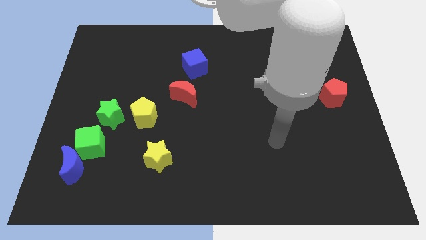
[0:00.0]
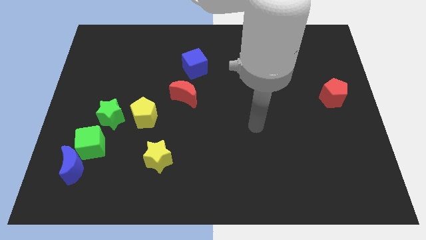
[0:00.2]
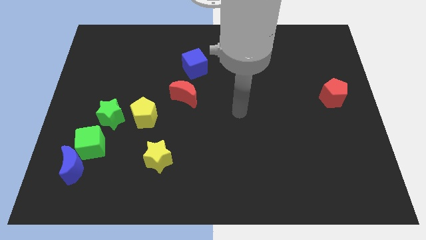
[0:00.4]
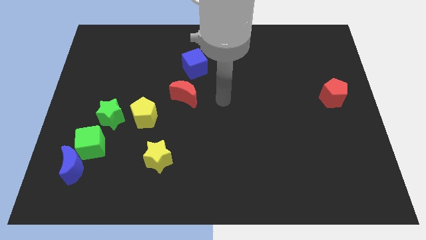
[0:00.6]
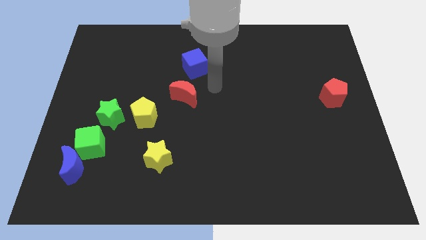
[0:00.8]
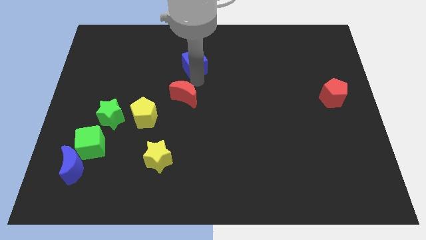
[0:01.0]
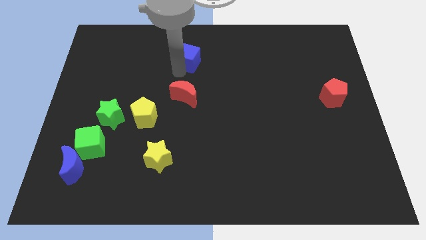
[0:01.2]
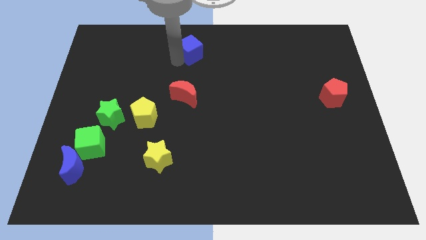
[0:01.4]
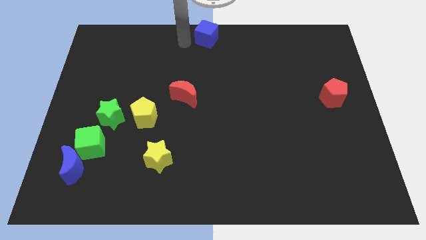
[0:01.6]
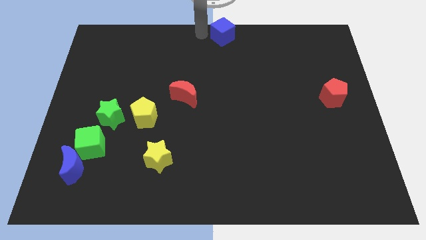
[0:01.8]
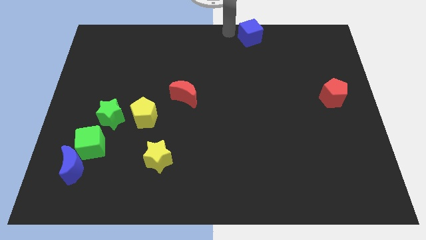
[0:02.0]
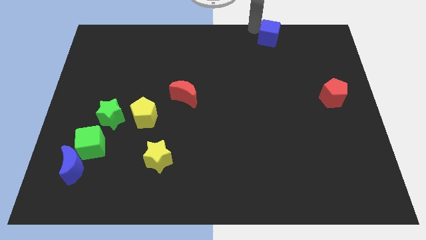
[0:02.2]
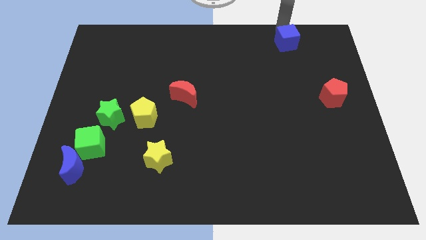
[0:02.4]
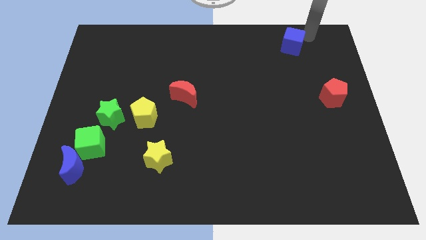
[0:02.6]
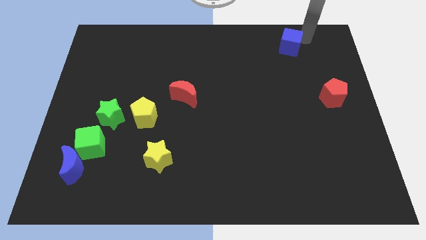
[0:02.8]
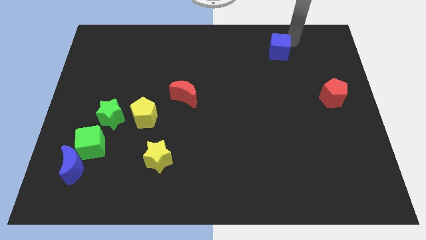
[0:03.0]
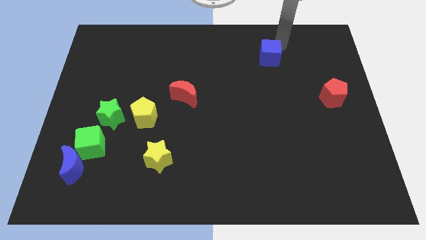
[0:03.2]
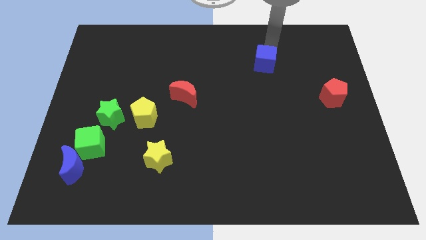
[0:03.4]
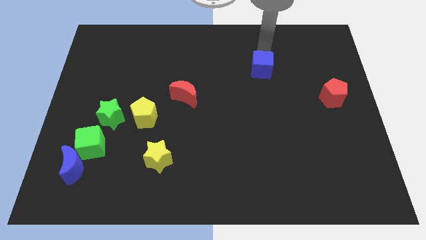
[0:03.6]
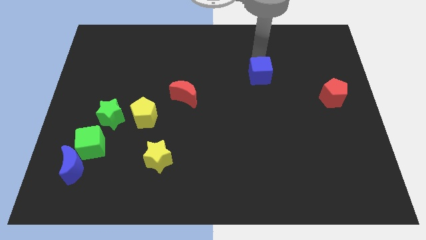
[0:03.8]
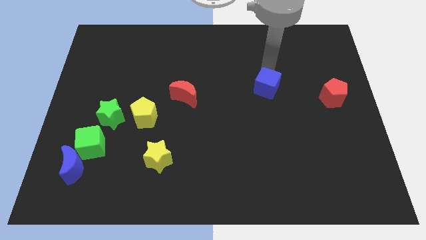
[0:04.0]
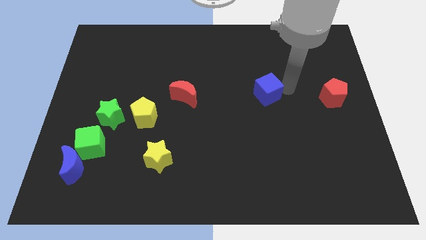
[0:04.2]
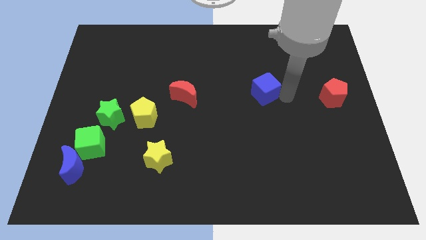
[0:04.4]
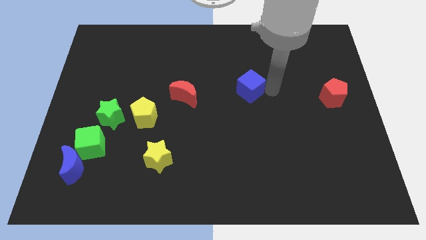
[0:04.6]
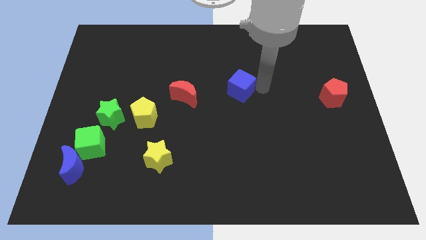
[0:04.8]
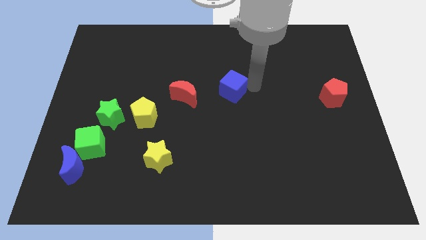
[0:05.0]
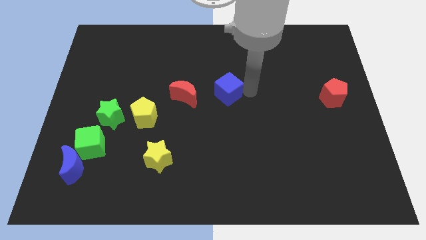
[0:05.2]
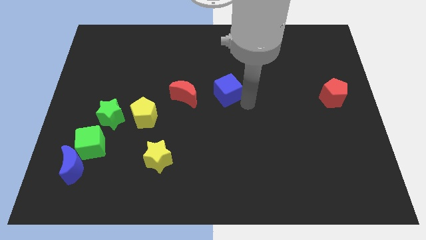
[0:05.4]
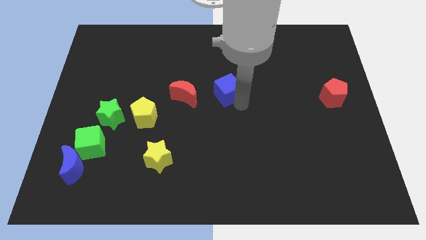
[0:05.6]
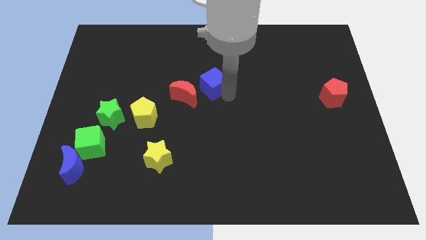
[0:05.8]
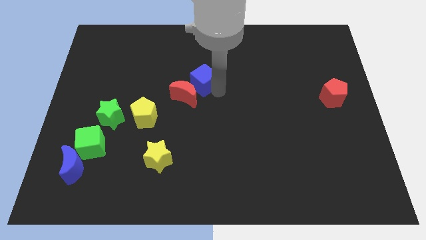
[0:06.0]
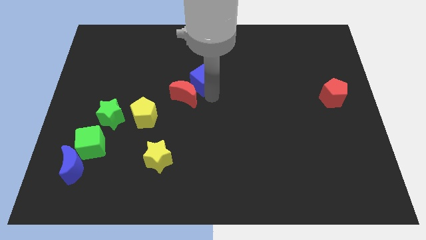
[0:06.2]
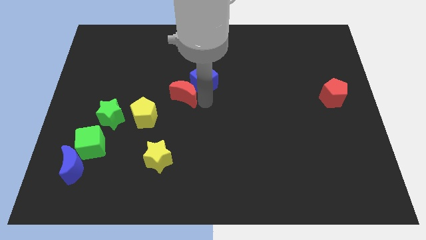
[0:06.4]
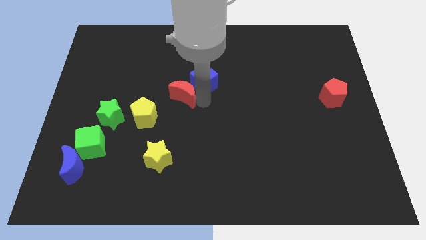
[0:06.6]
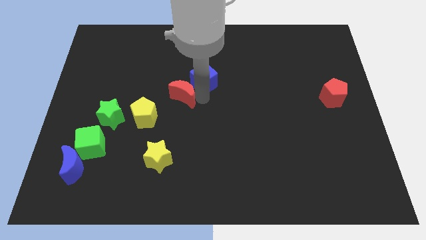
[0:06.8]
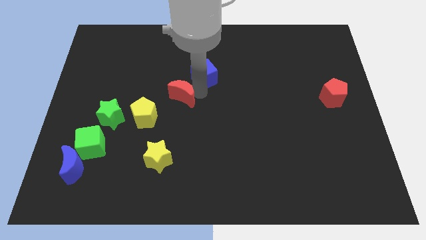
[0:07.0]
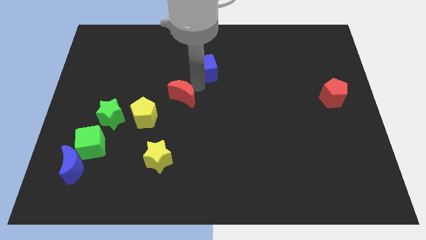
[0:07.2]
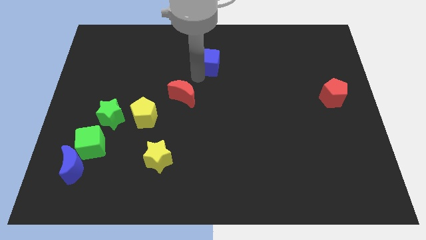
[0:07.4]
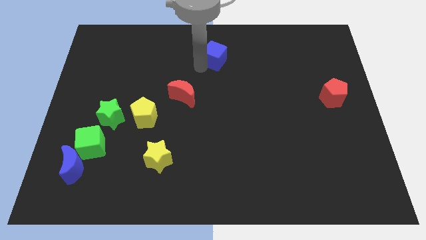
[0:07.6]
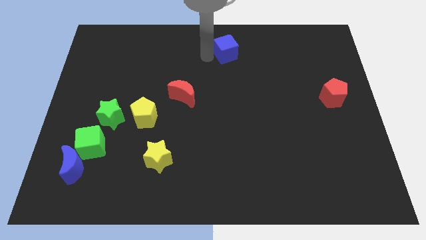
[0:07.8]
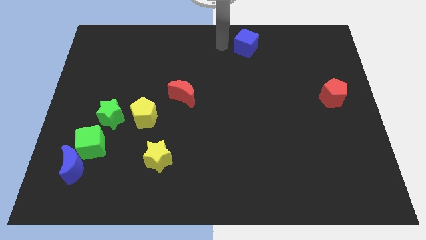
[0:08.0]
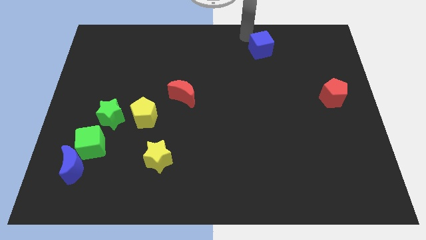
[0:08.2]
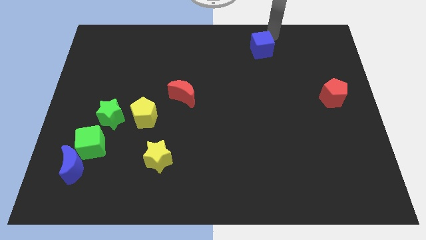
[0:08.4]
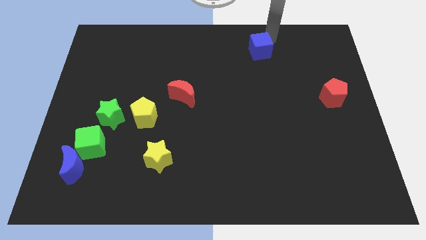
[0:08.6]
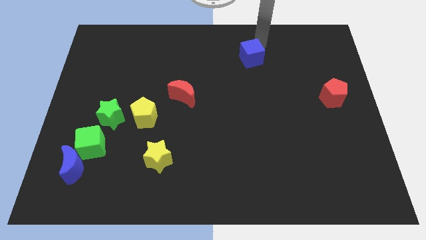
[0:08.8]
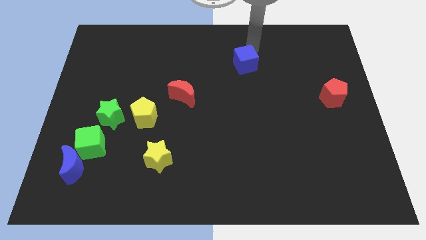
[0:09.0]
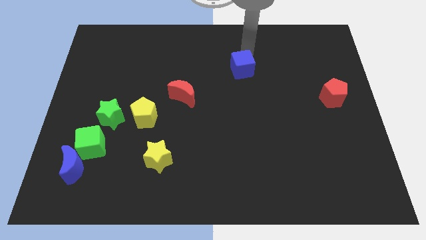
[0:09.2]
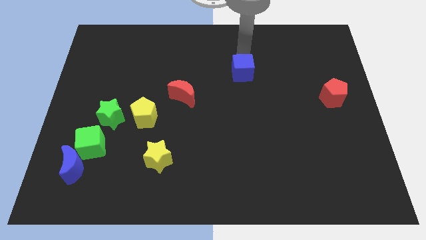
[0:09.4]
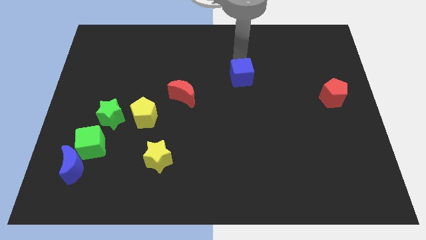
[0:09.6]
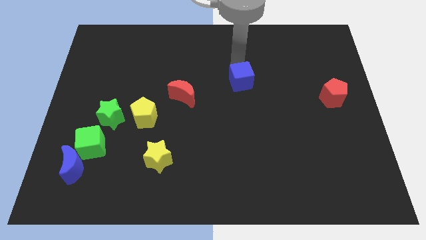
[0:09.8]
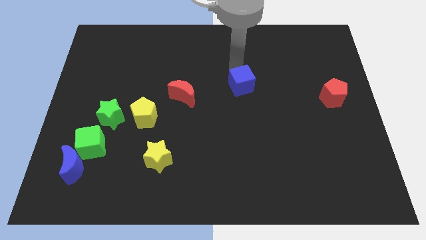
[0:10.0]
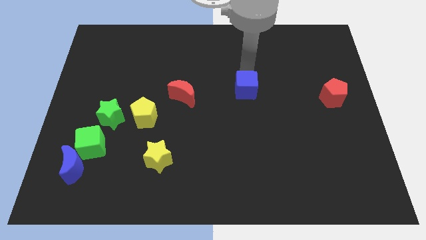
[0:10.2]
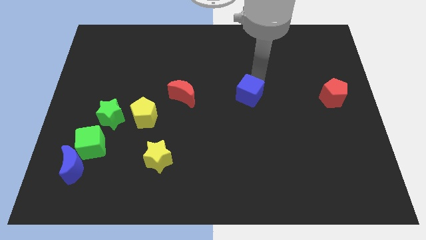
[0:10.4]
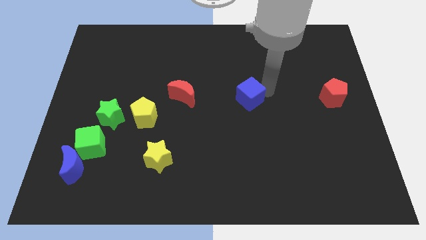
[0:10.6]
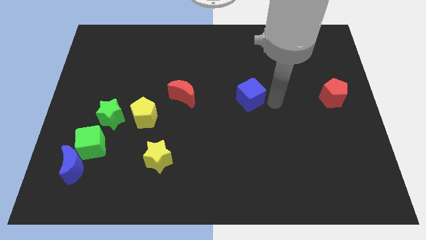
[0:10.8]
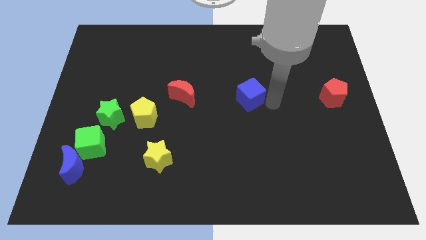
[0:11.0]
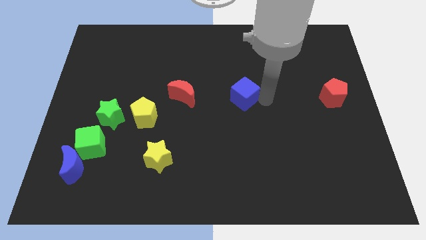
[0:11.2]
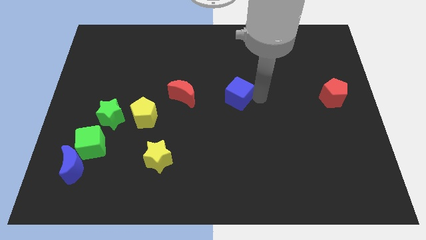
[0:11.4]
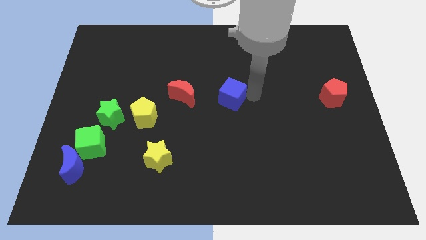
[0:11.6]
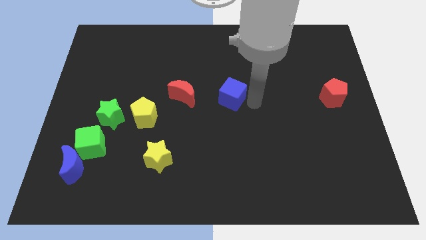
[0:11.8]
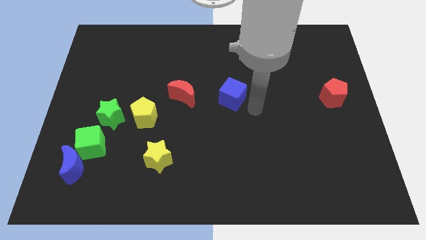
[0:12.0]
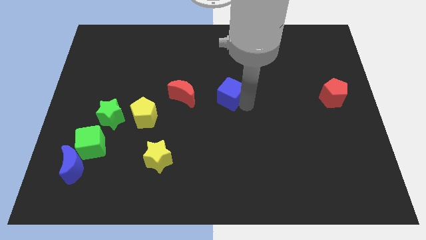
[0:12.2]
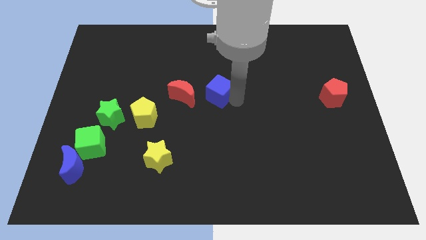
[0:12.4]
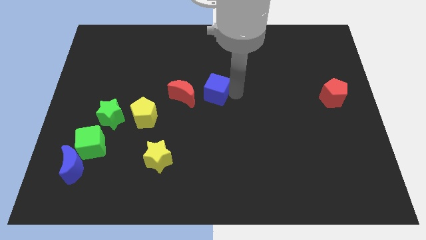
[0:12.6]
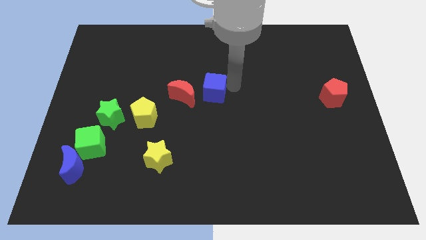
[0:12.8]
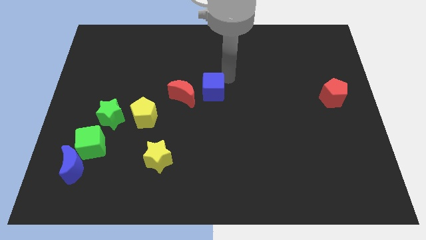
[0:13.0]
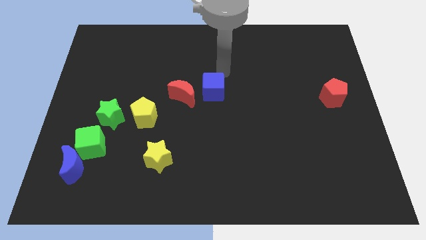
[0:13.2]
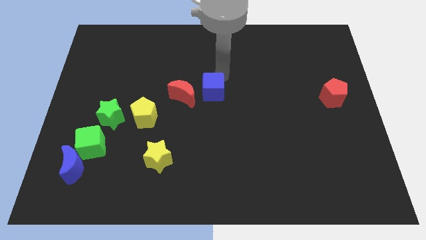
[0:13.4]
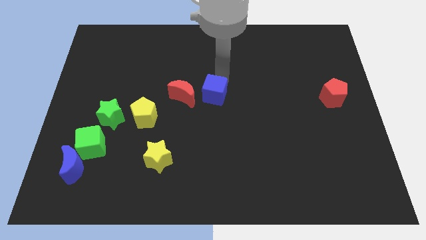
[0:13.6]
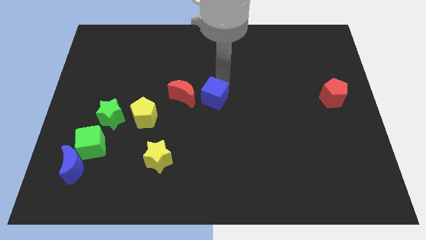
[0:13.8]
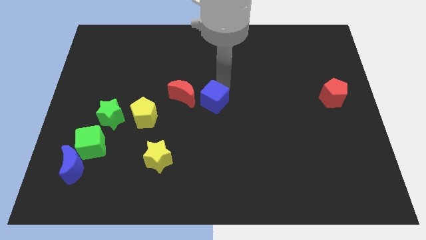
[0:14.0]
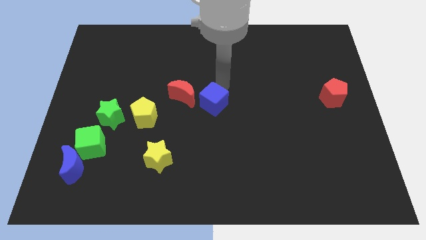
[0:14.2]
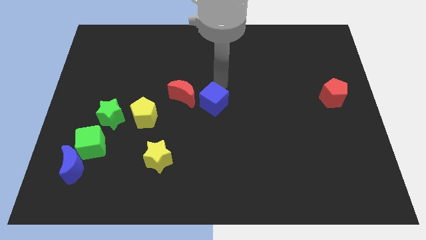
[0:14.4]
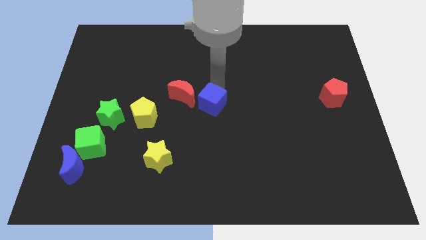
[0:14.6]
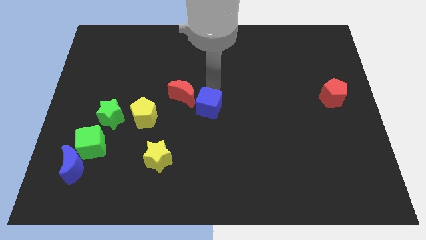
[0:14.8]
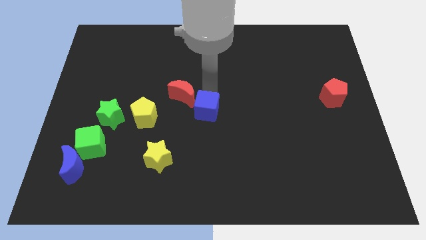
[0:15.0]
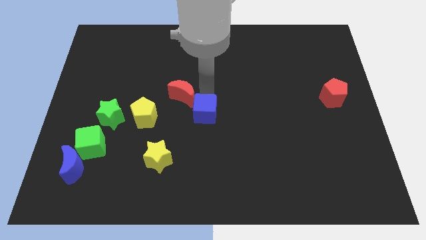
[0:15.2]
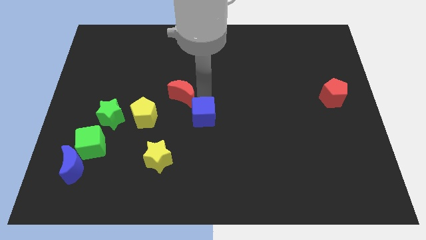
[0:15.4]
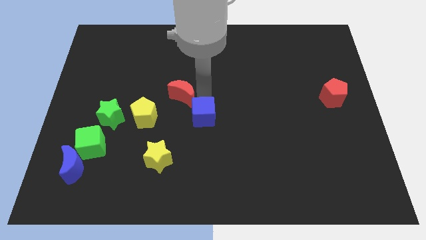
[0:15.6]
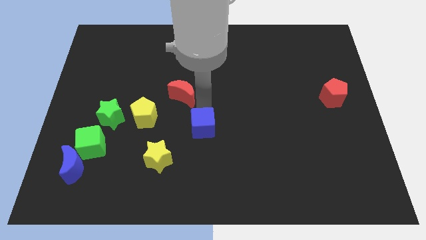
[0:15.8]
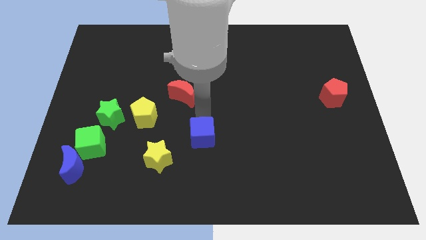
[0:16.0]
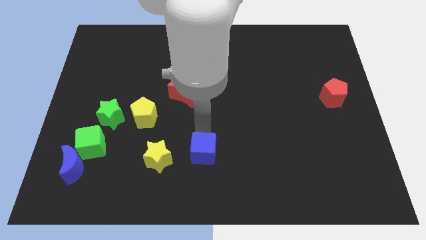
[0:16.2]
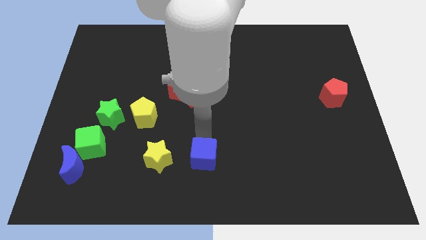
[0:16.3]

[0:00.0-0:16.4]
slide the blue cube to the bottom side
